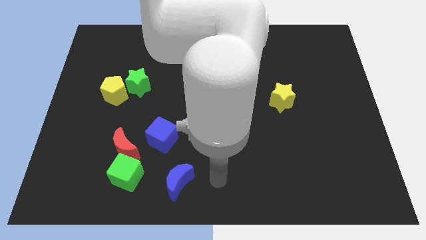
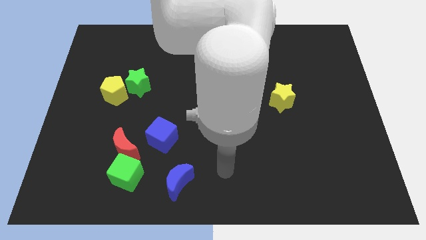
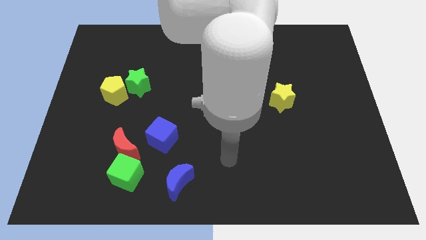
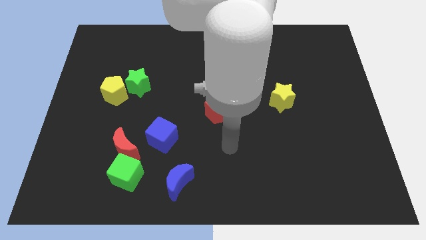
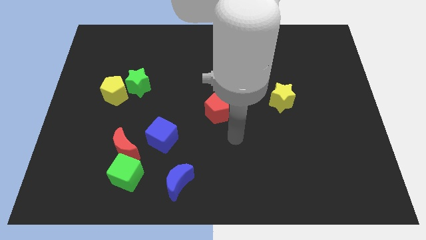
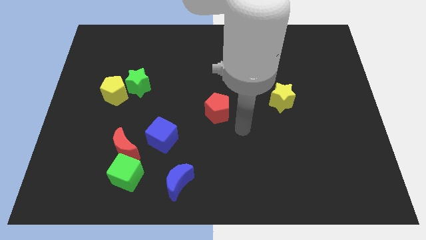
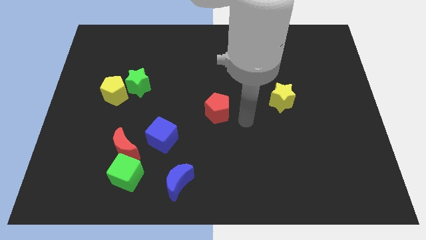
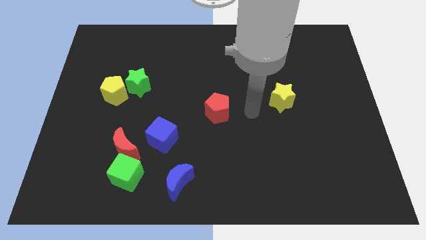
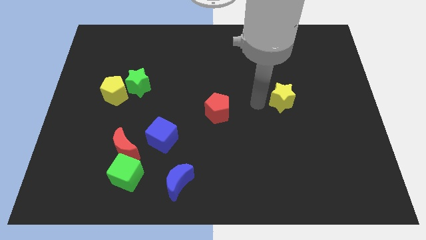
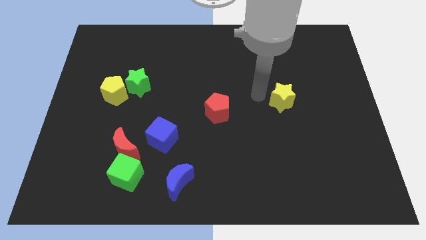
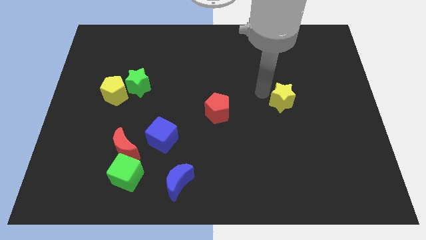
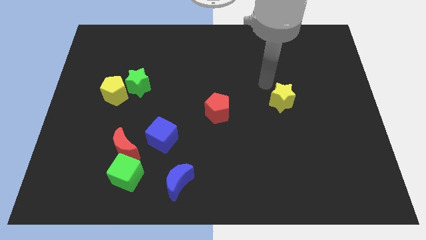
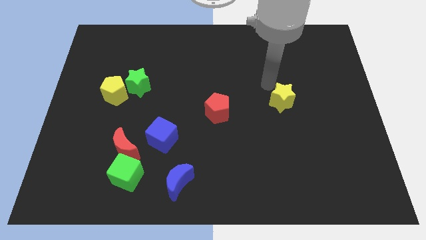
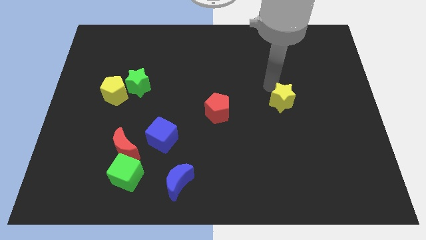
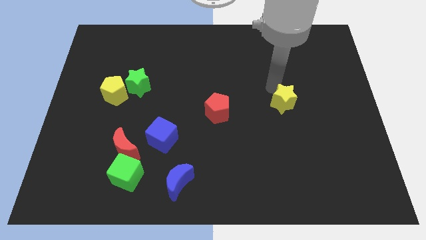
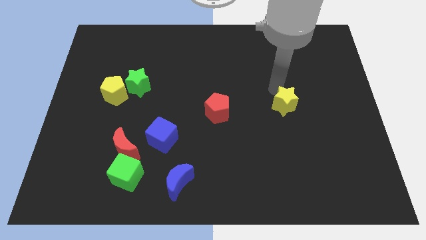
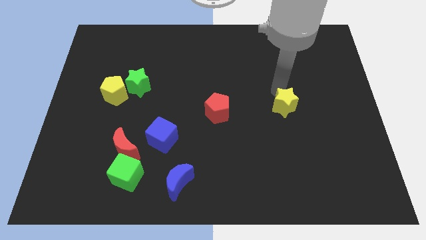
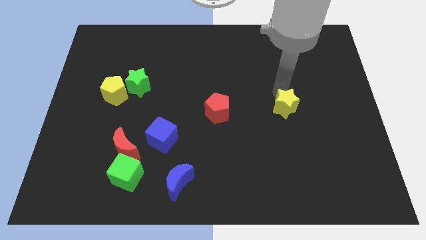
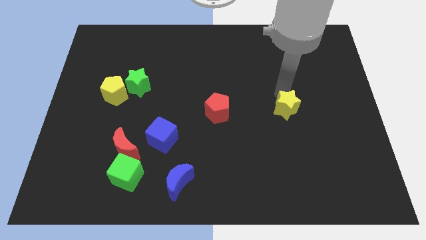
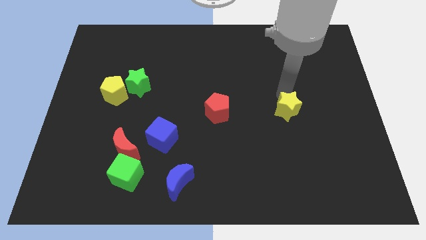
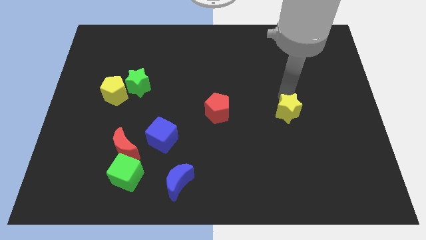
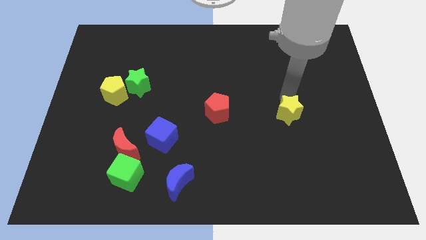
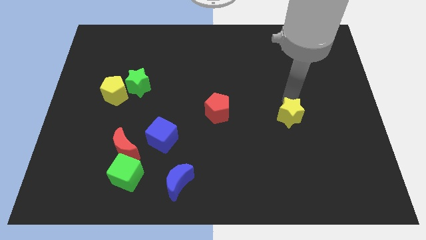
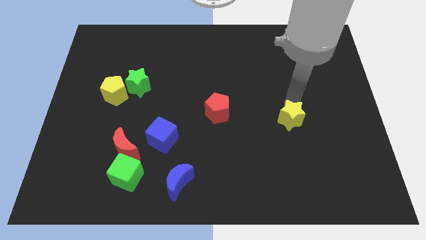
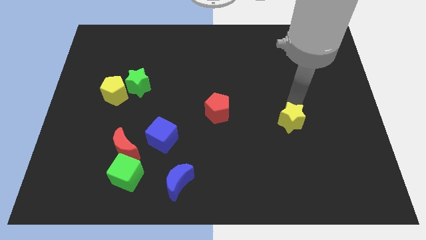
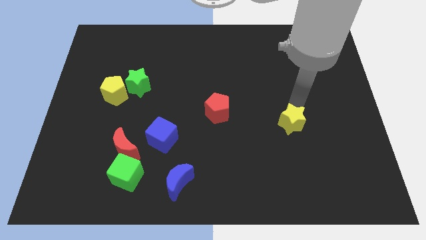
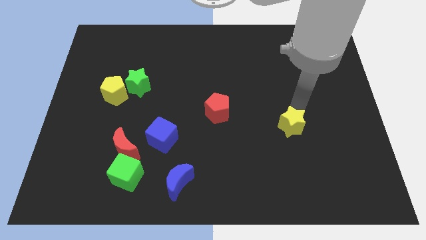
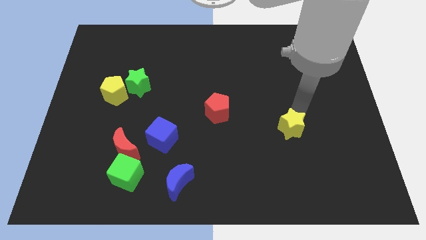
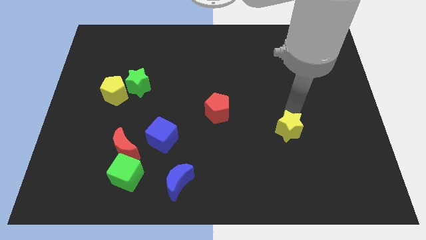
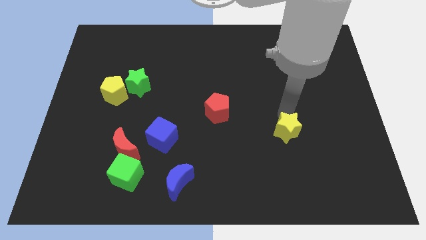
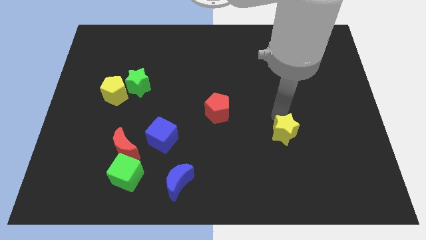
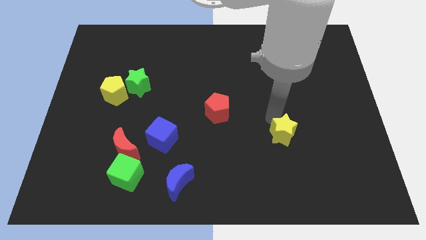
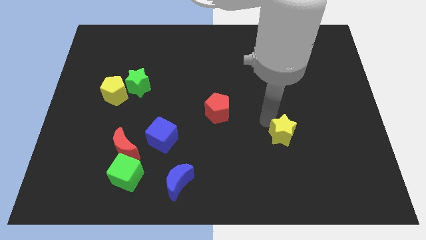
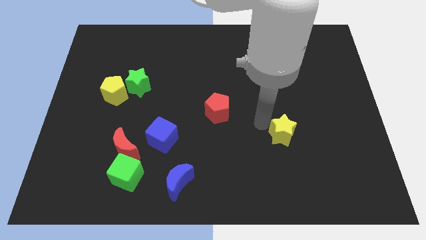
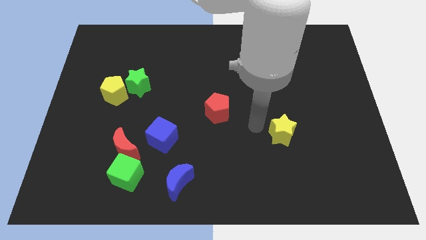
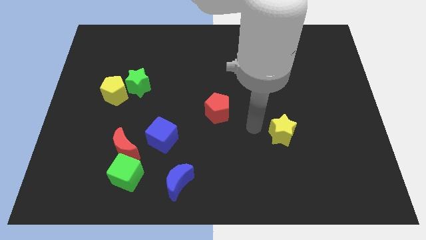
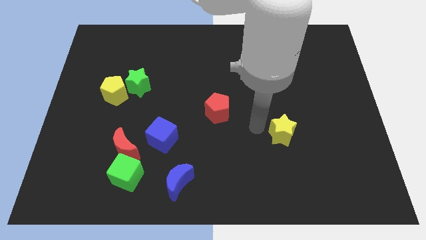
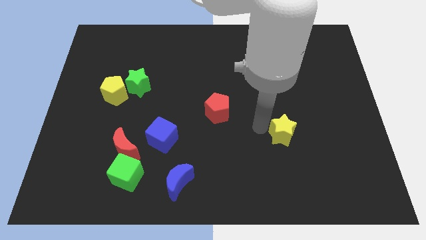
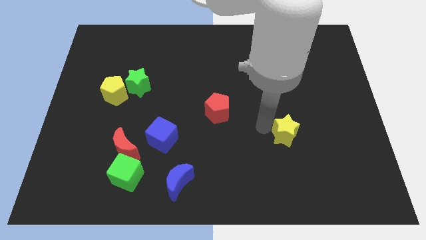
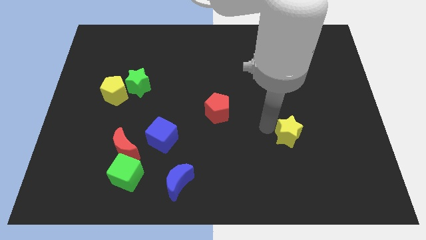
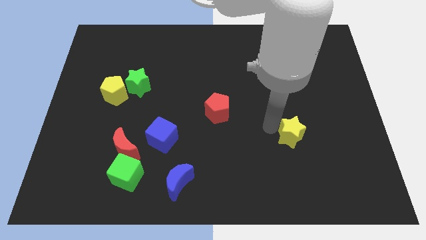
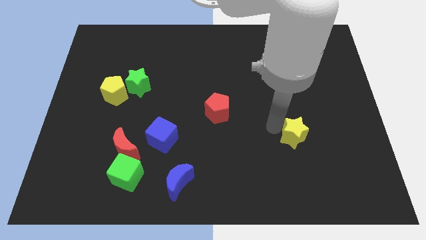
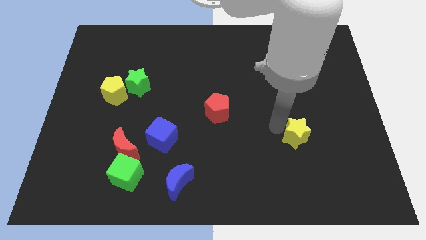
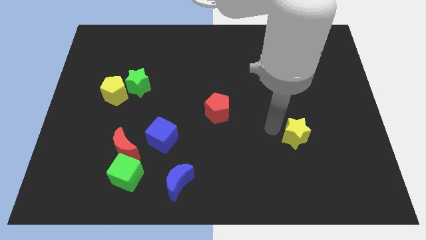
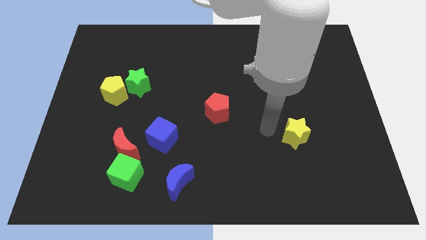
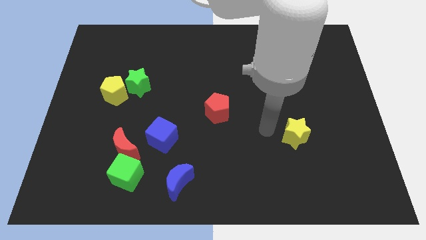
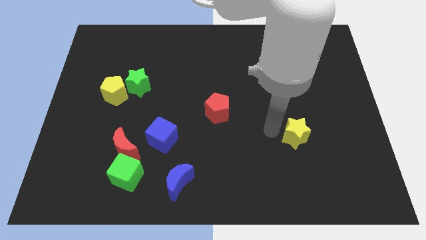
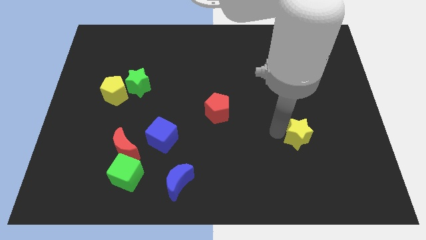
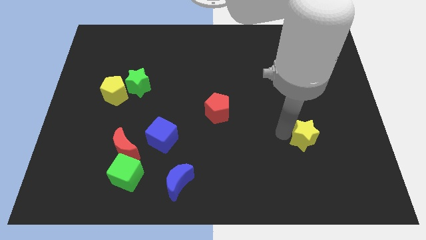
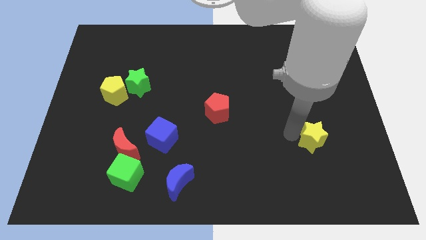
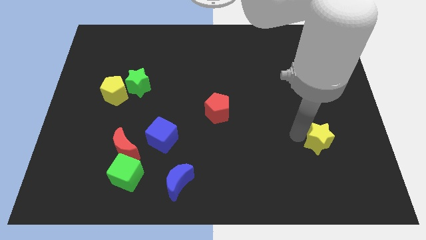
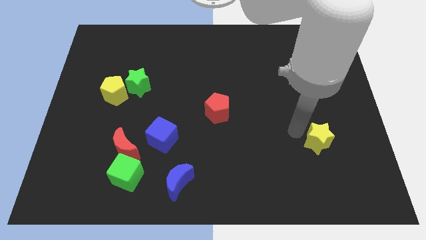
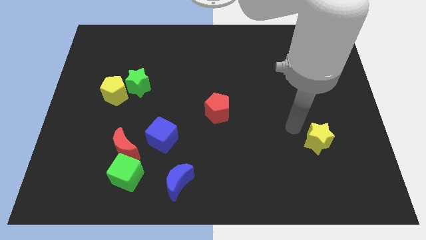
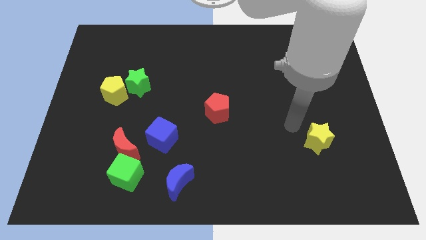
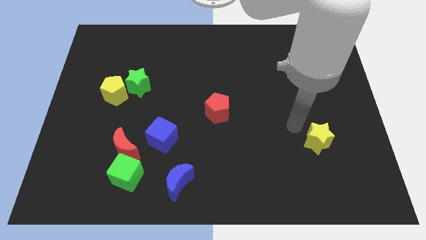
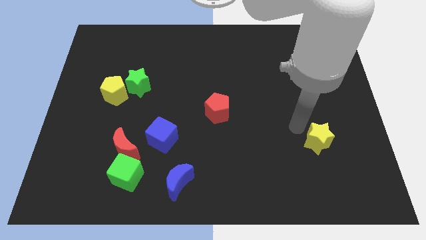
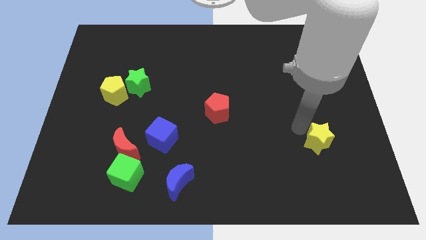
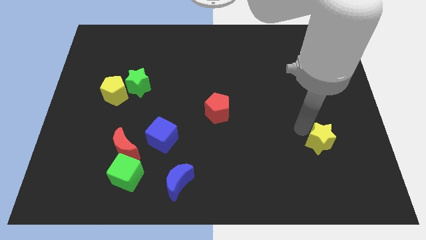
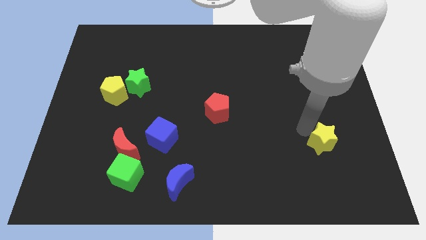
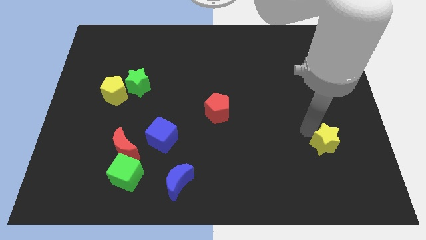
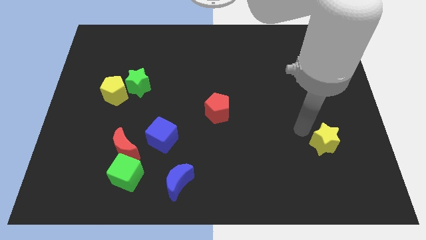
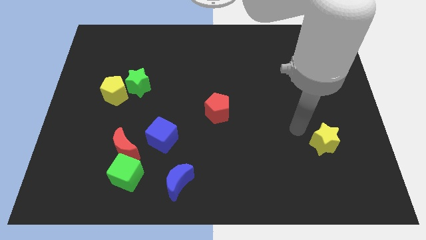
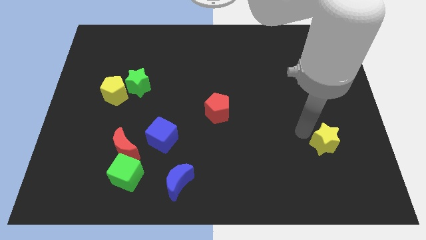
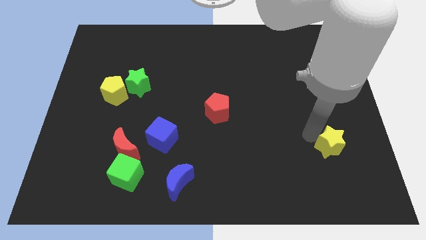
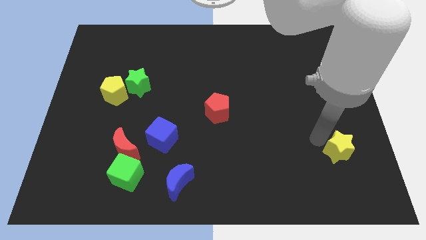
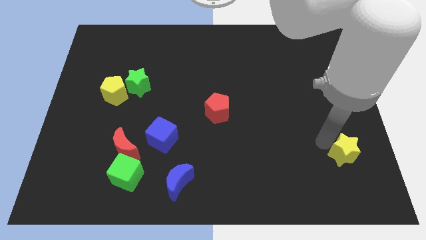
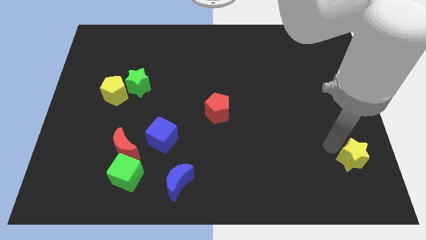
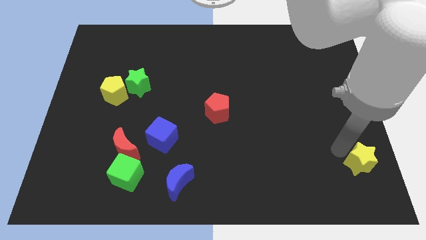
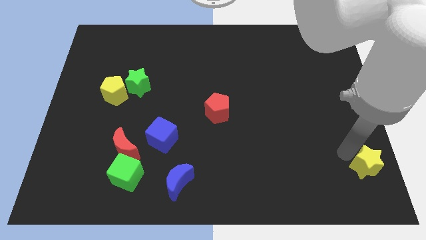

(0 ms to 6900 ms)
slide the yellow star to the bottom right of the board

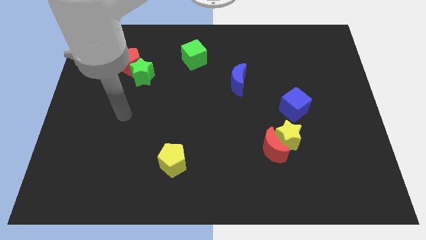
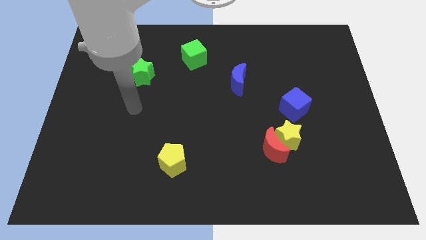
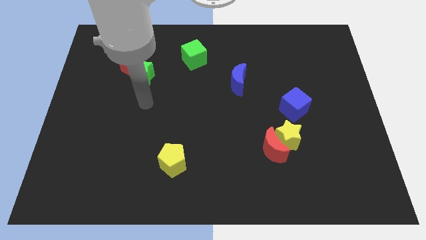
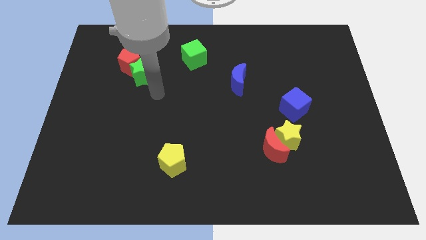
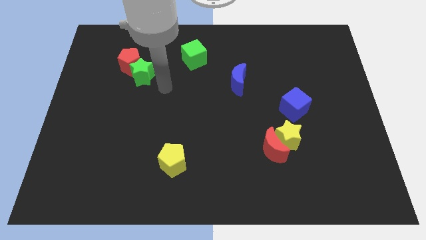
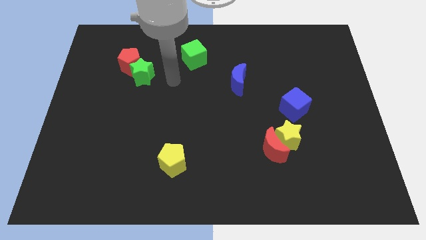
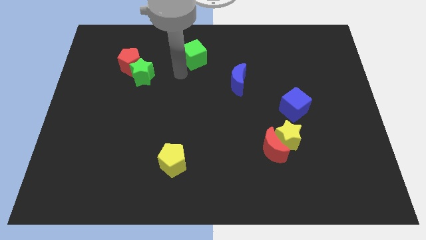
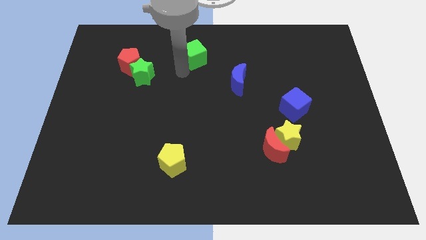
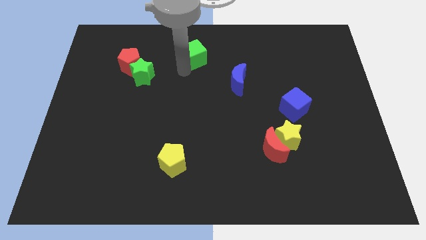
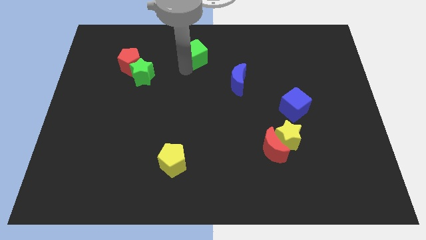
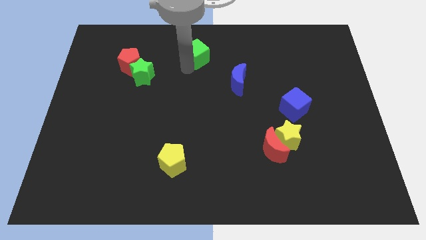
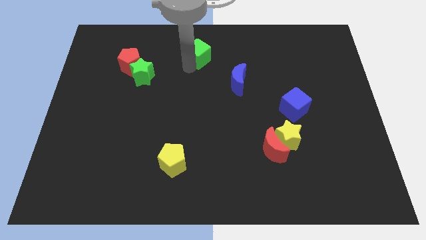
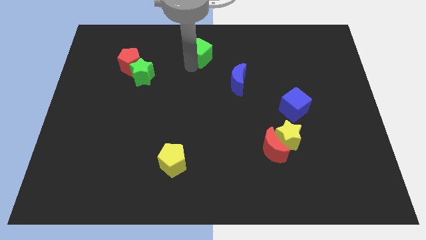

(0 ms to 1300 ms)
push the green cube to the top
